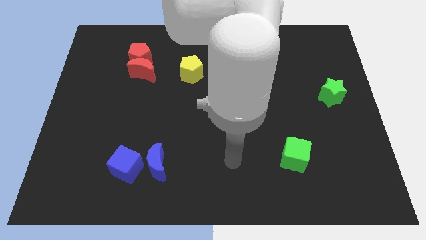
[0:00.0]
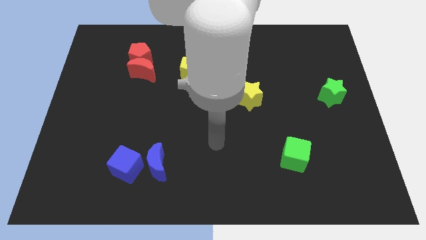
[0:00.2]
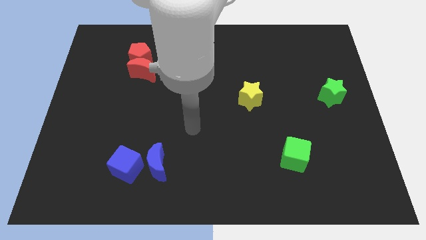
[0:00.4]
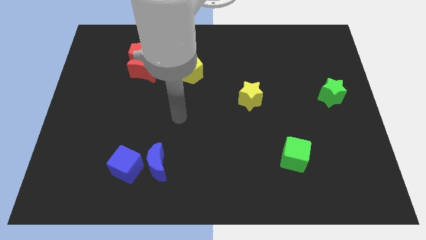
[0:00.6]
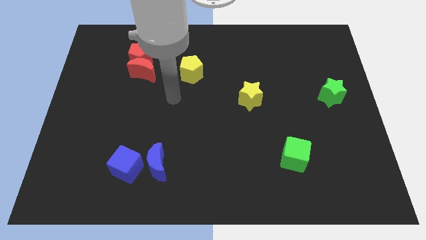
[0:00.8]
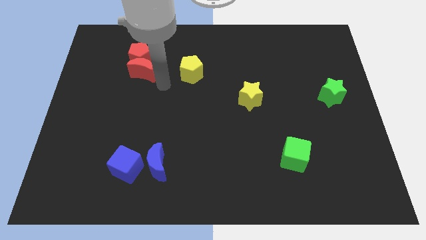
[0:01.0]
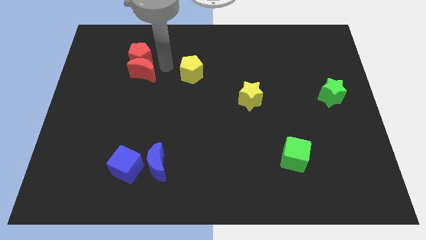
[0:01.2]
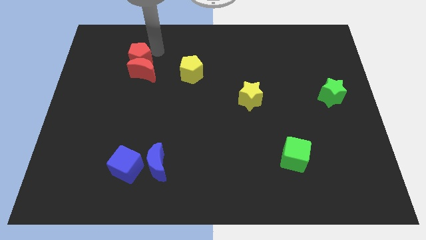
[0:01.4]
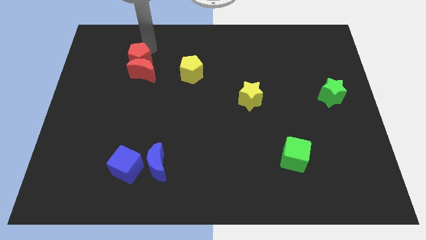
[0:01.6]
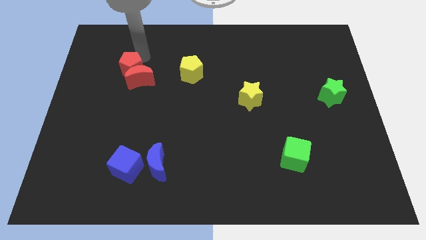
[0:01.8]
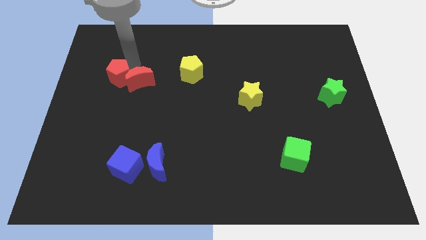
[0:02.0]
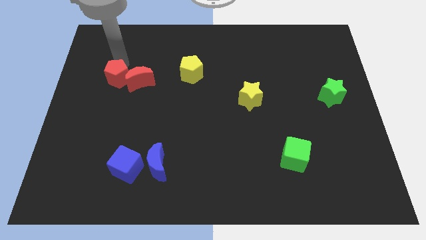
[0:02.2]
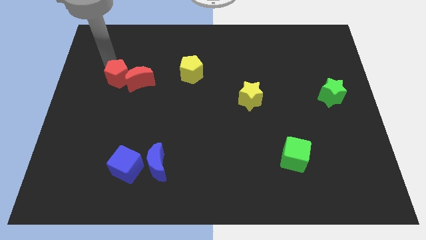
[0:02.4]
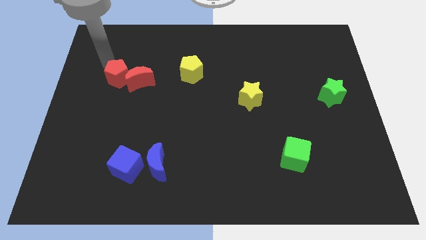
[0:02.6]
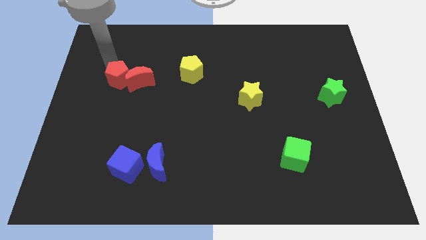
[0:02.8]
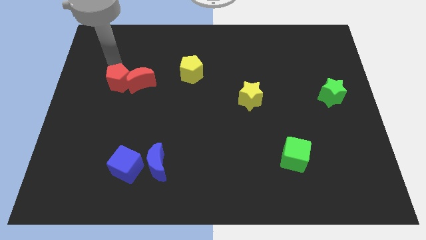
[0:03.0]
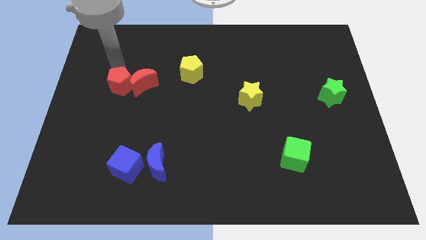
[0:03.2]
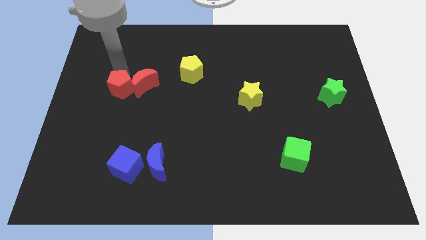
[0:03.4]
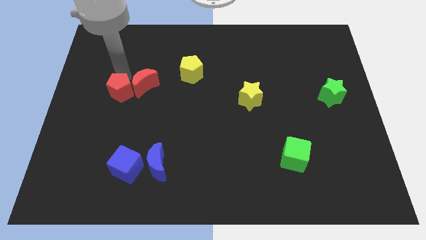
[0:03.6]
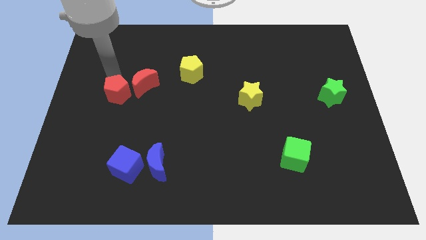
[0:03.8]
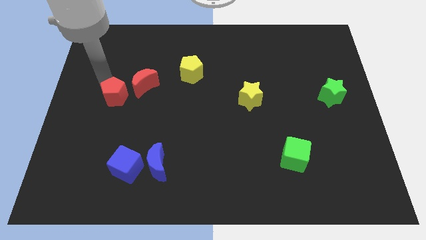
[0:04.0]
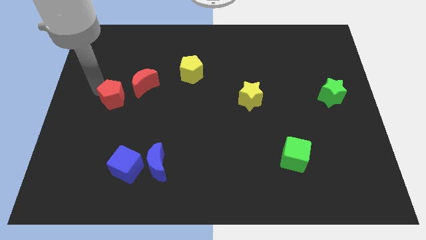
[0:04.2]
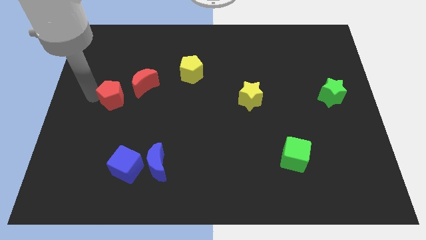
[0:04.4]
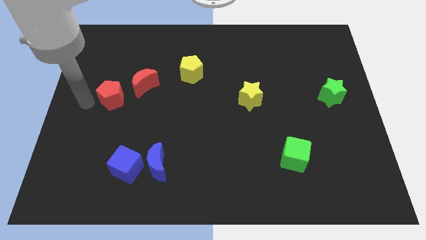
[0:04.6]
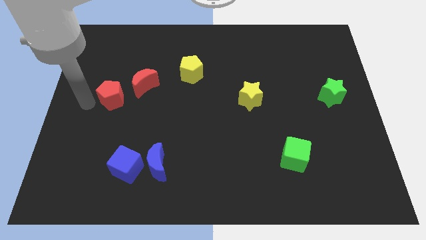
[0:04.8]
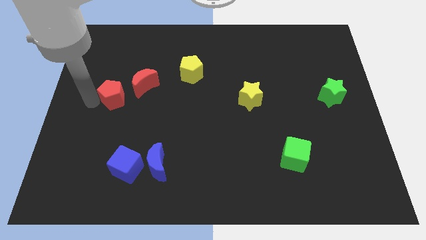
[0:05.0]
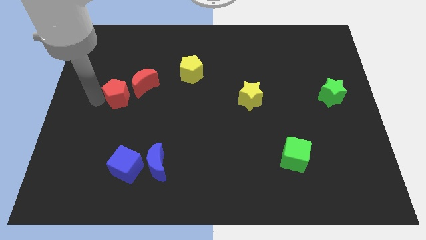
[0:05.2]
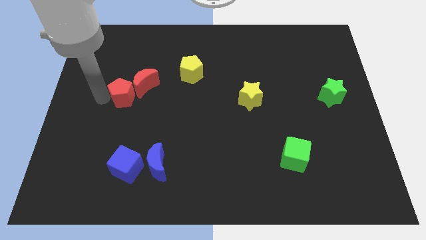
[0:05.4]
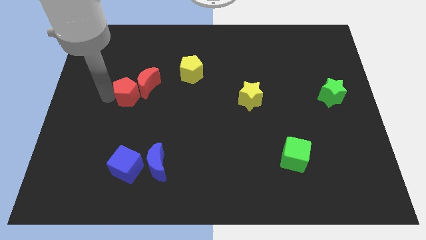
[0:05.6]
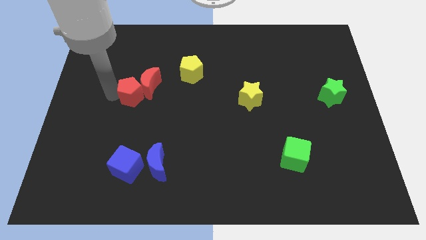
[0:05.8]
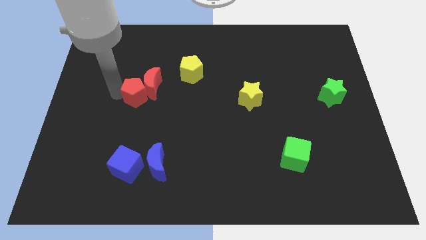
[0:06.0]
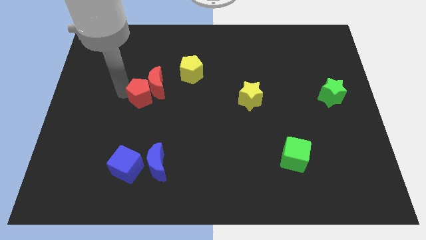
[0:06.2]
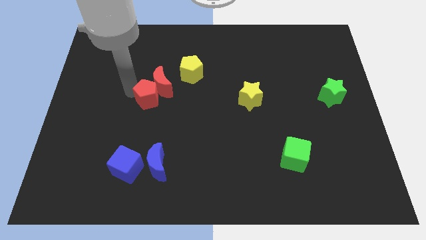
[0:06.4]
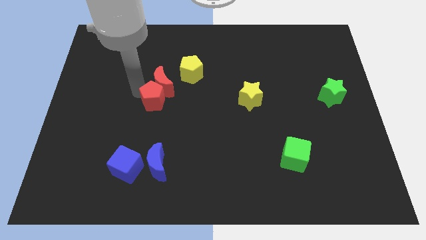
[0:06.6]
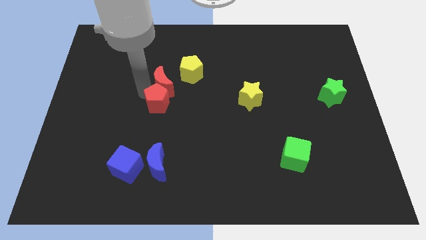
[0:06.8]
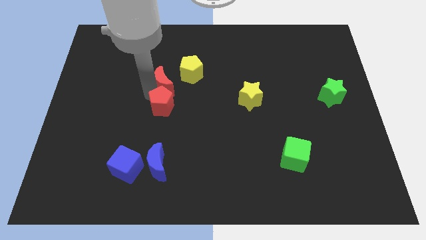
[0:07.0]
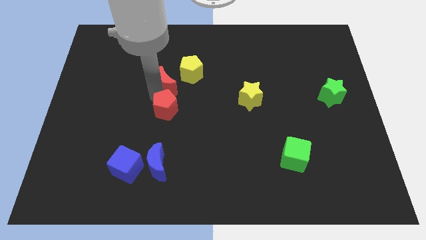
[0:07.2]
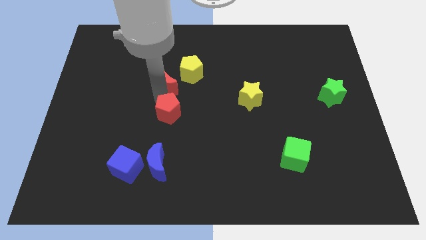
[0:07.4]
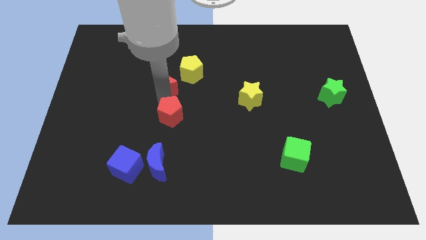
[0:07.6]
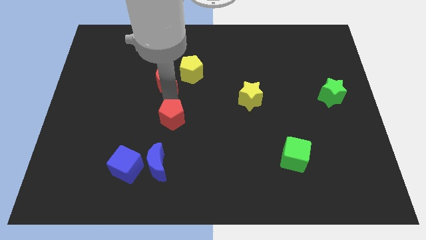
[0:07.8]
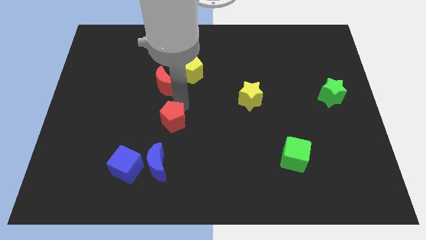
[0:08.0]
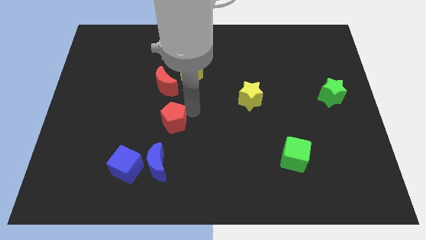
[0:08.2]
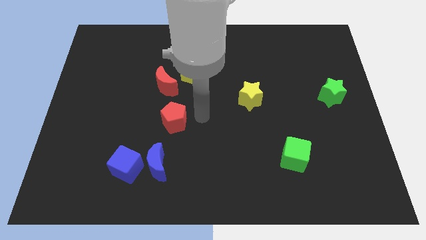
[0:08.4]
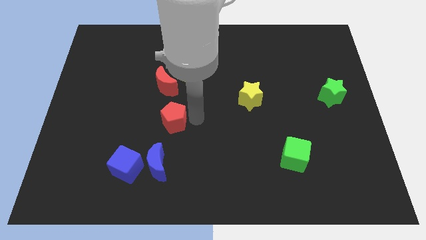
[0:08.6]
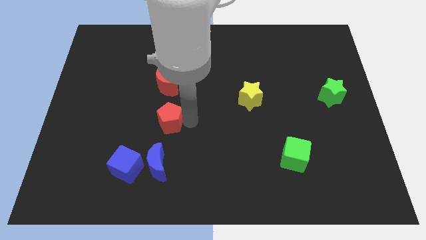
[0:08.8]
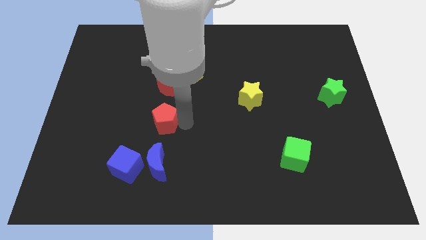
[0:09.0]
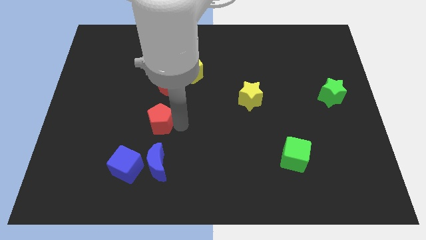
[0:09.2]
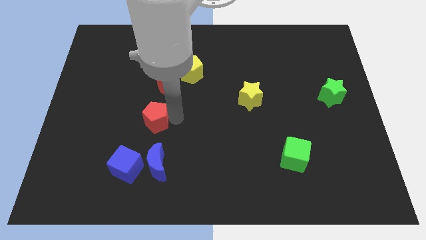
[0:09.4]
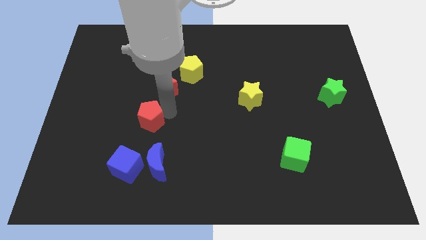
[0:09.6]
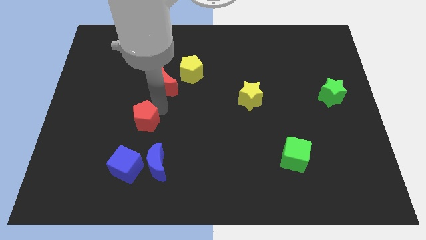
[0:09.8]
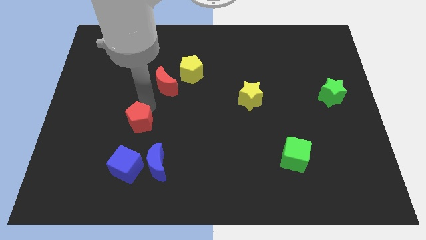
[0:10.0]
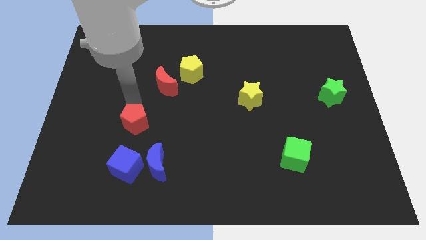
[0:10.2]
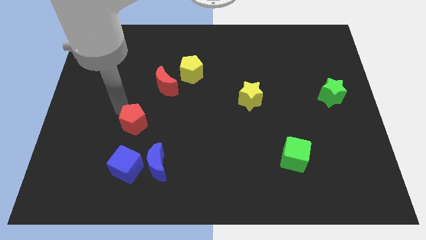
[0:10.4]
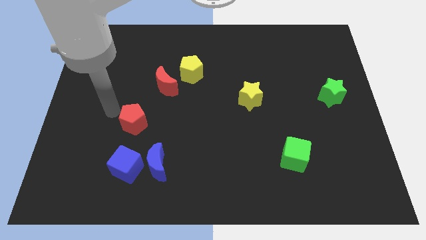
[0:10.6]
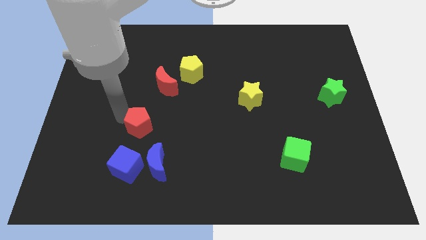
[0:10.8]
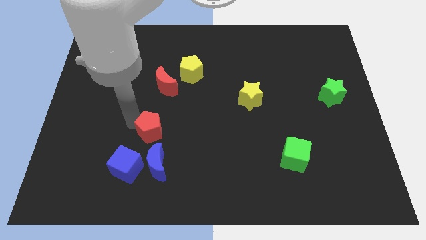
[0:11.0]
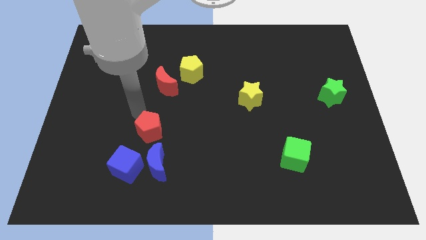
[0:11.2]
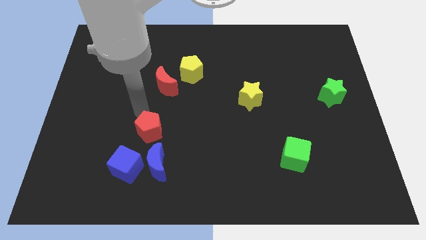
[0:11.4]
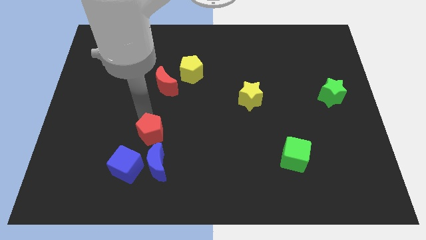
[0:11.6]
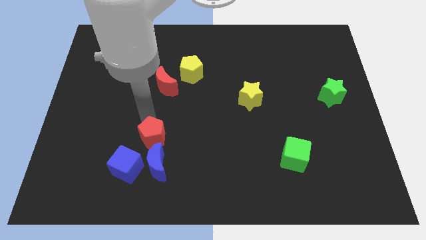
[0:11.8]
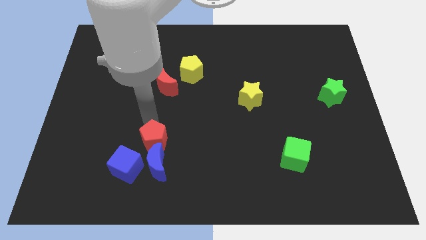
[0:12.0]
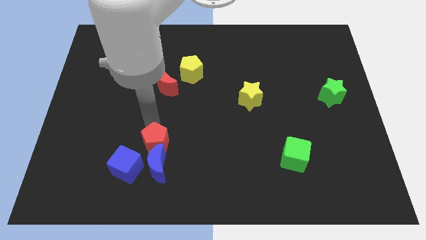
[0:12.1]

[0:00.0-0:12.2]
put the red pentagon close to the blue moon
